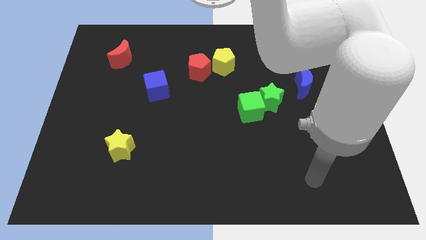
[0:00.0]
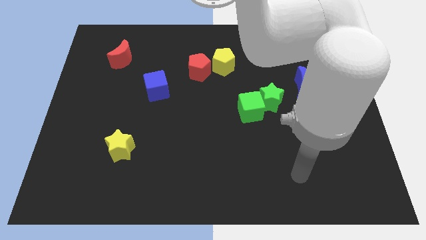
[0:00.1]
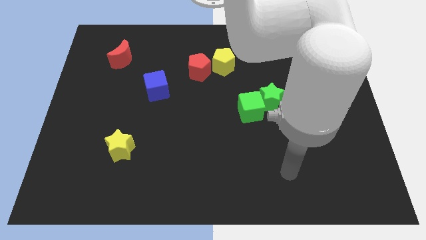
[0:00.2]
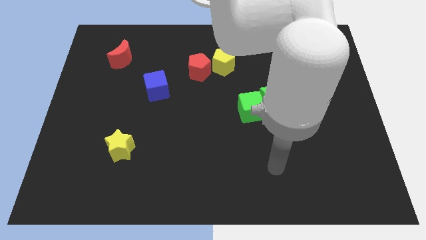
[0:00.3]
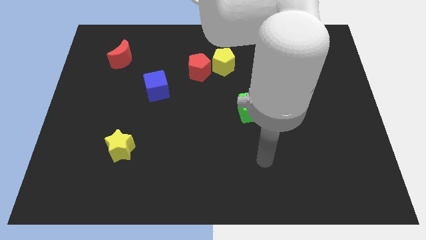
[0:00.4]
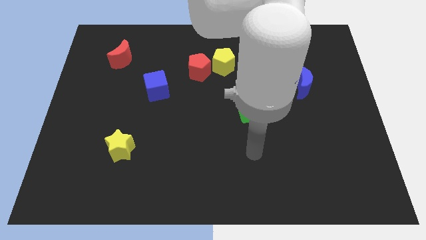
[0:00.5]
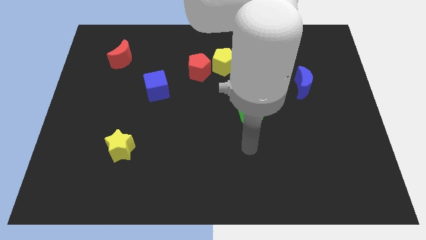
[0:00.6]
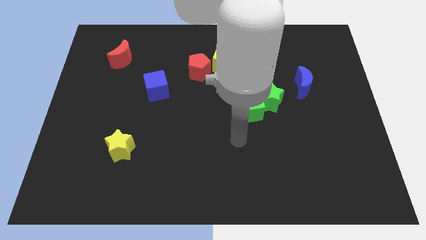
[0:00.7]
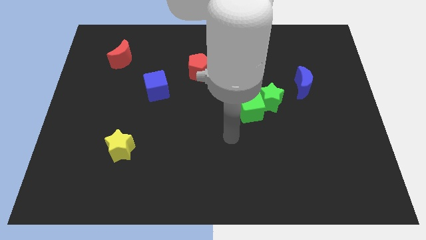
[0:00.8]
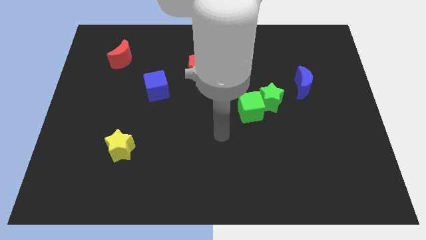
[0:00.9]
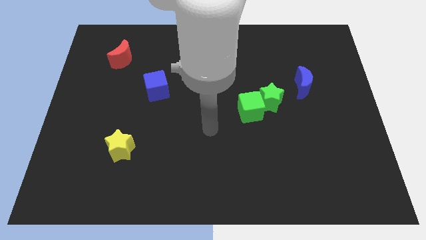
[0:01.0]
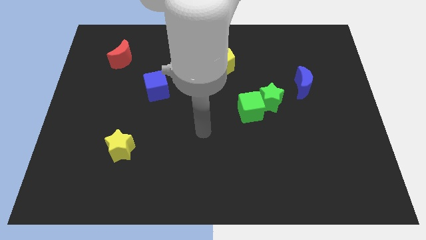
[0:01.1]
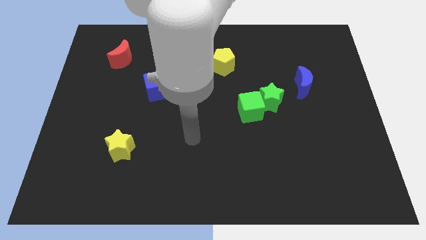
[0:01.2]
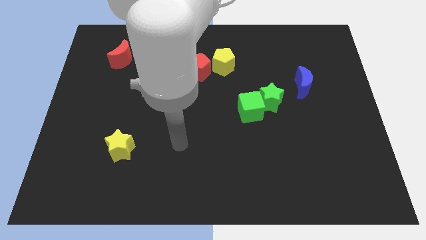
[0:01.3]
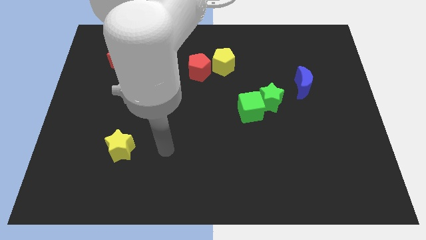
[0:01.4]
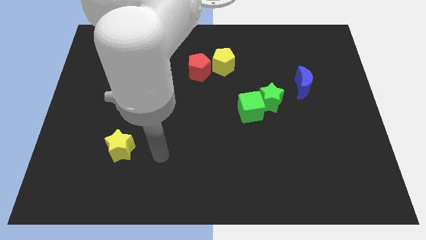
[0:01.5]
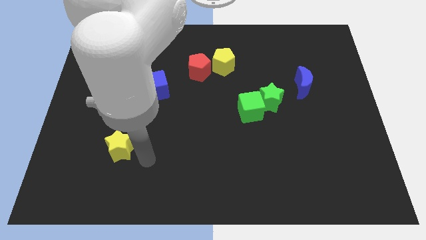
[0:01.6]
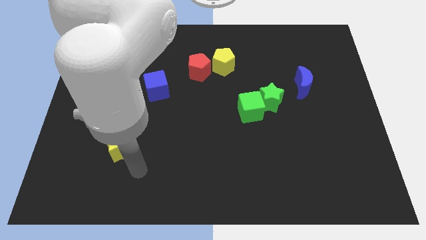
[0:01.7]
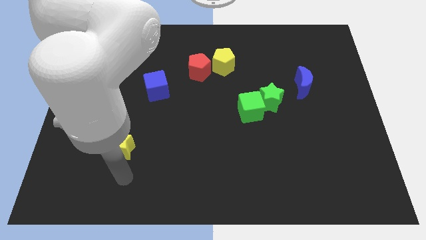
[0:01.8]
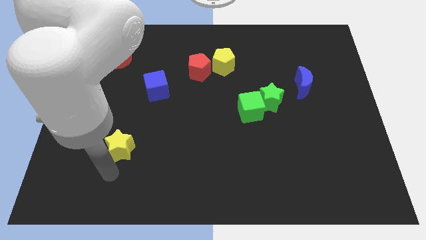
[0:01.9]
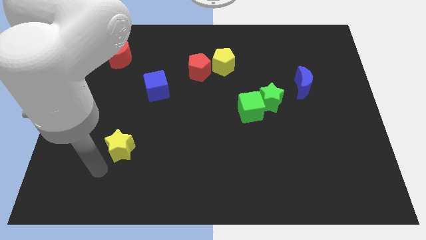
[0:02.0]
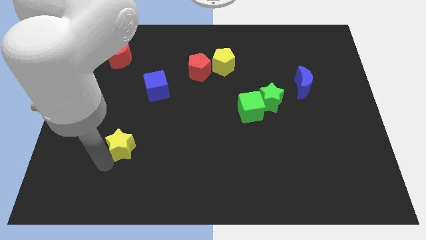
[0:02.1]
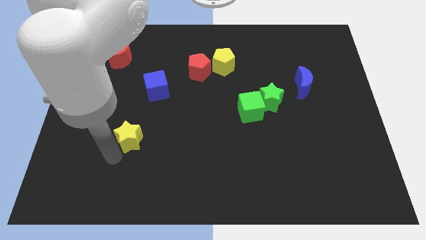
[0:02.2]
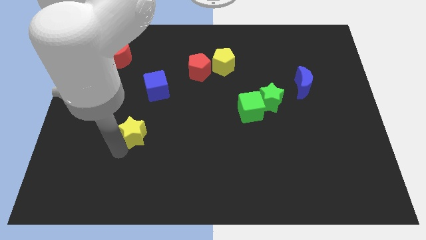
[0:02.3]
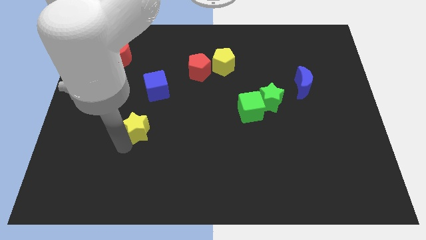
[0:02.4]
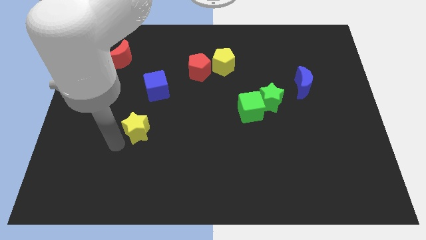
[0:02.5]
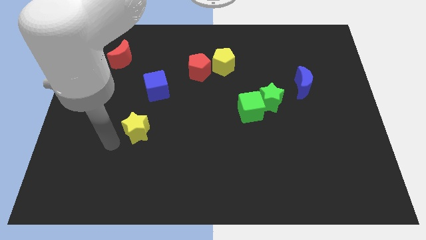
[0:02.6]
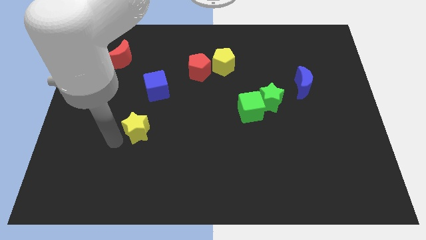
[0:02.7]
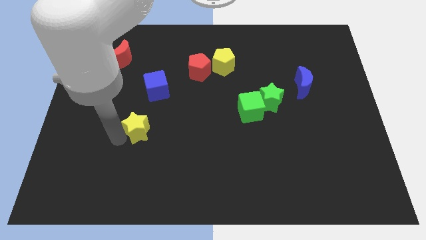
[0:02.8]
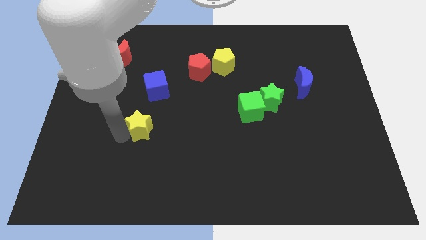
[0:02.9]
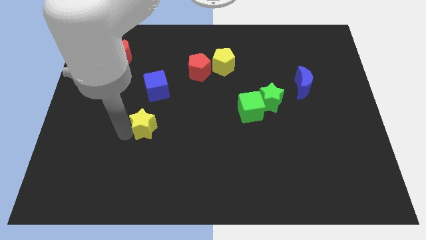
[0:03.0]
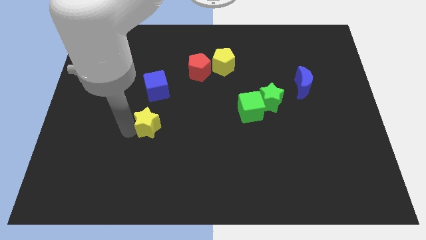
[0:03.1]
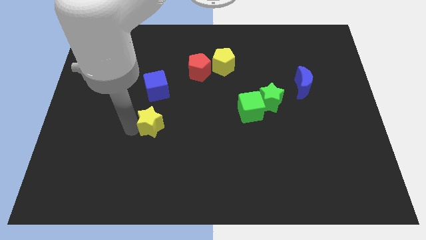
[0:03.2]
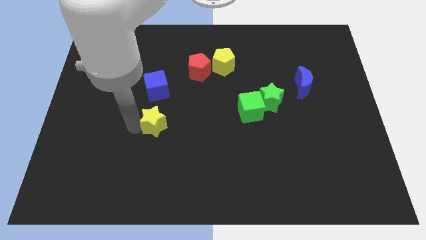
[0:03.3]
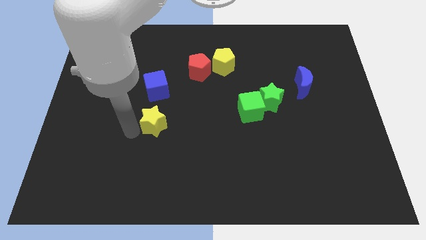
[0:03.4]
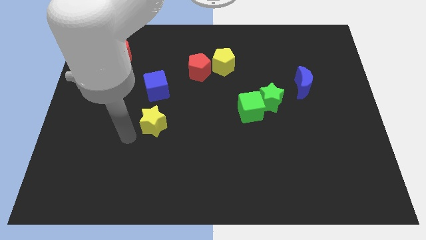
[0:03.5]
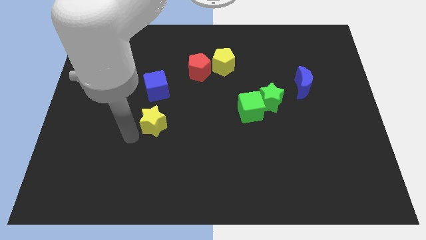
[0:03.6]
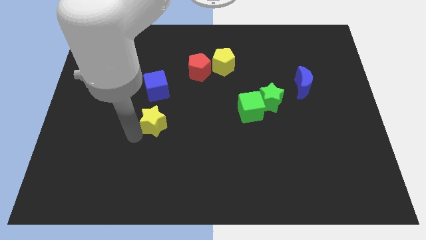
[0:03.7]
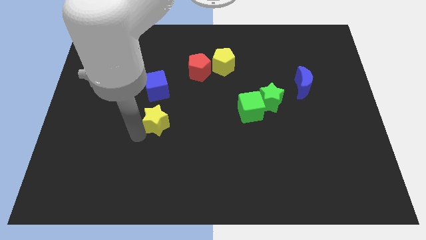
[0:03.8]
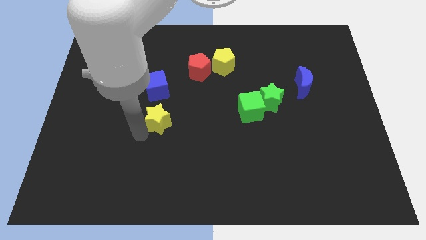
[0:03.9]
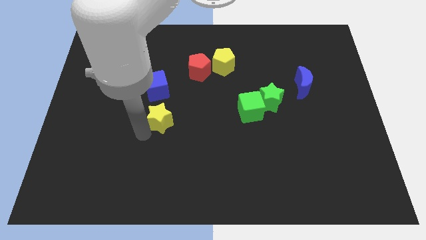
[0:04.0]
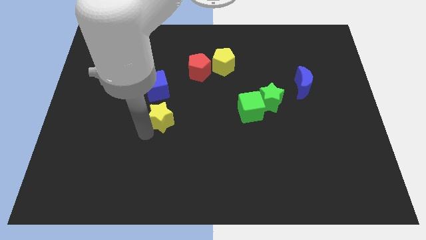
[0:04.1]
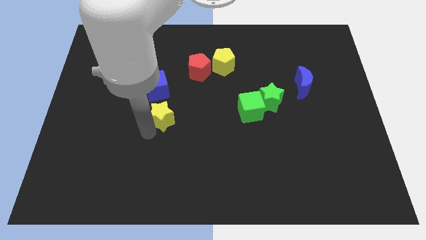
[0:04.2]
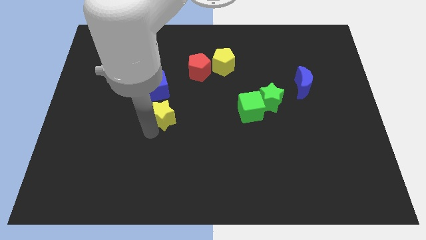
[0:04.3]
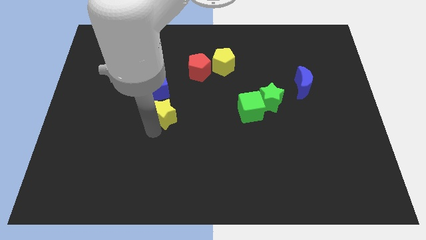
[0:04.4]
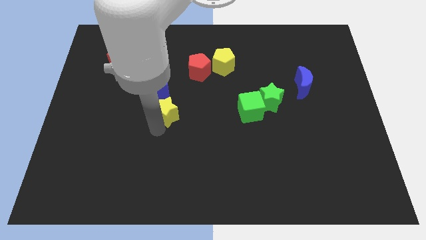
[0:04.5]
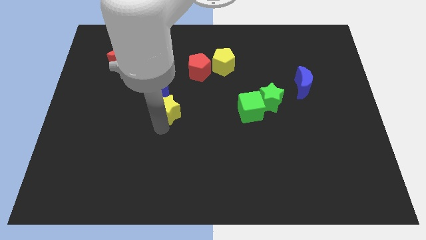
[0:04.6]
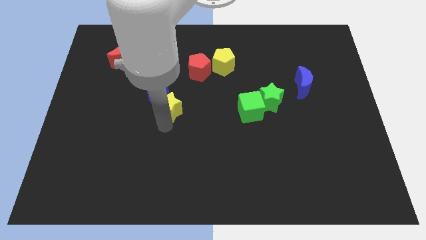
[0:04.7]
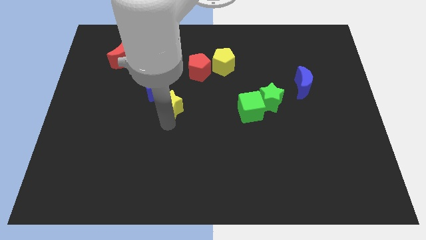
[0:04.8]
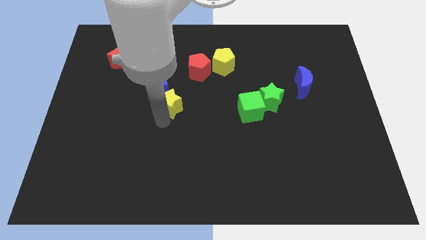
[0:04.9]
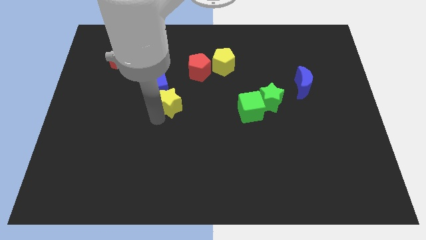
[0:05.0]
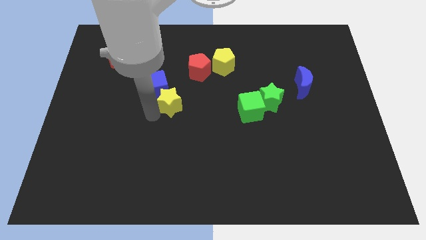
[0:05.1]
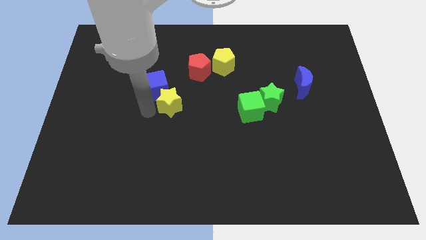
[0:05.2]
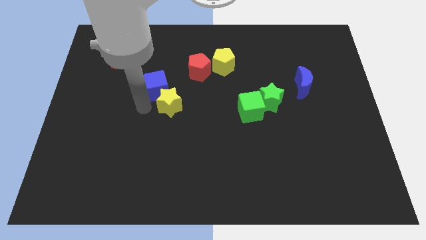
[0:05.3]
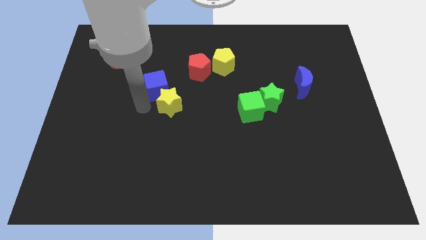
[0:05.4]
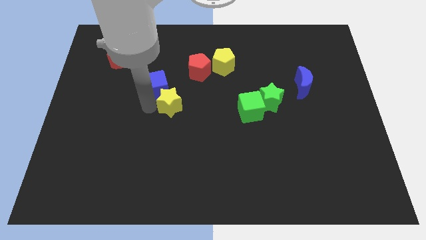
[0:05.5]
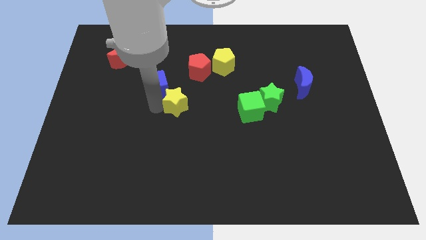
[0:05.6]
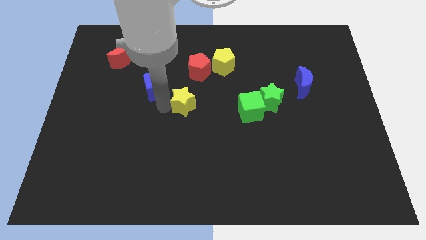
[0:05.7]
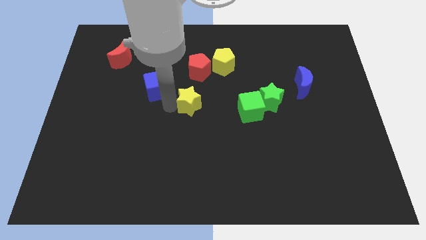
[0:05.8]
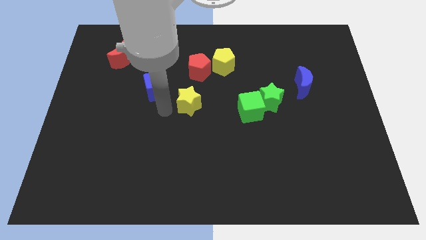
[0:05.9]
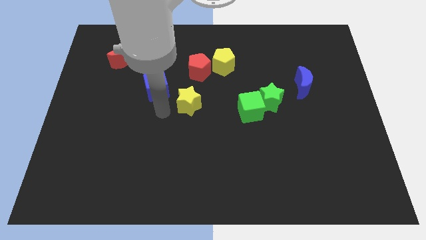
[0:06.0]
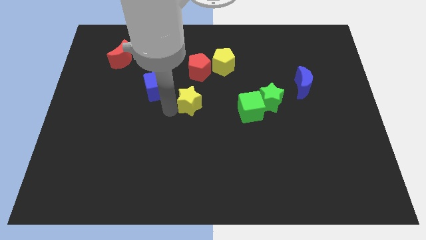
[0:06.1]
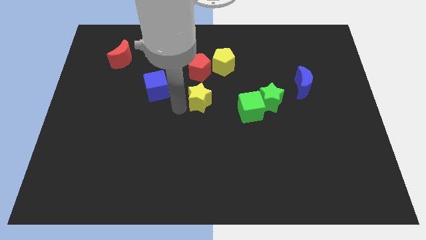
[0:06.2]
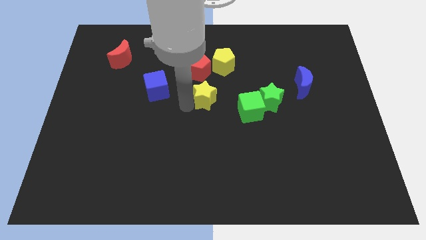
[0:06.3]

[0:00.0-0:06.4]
put the yellow star to the bottom of the yellow pentagon
